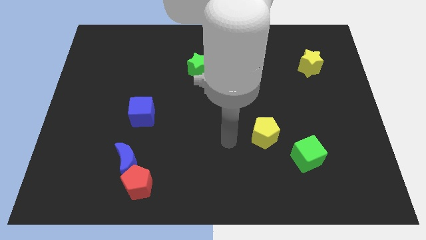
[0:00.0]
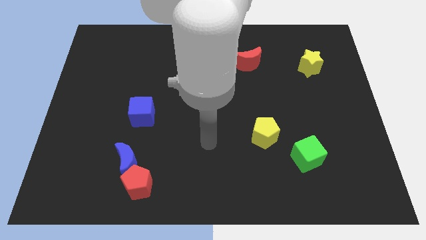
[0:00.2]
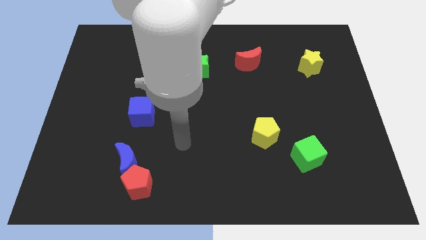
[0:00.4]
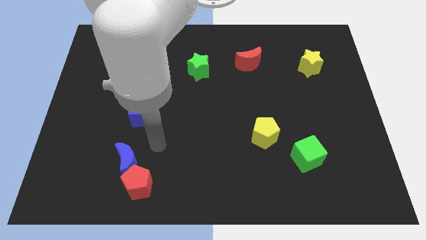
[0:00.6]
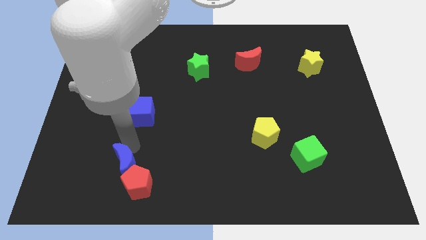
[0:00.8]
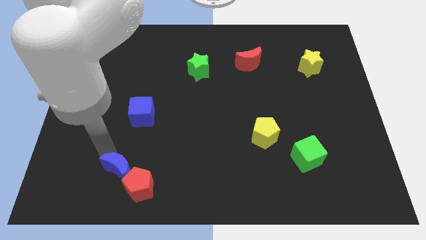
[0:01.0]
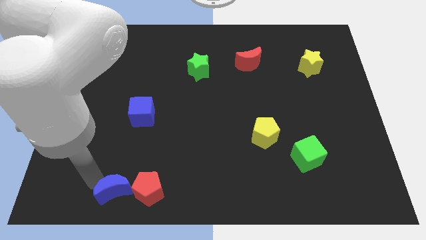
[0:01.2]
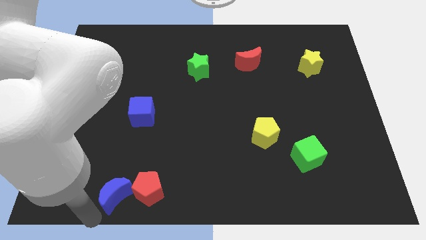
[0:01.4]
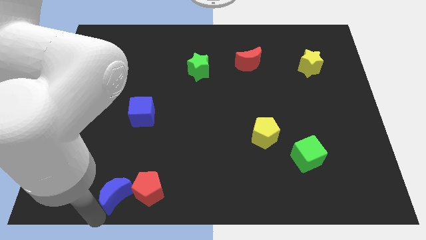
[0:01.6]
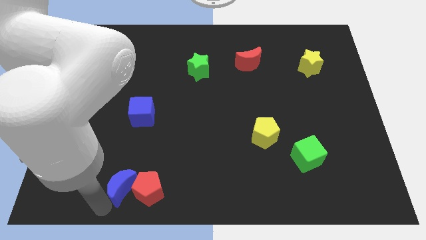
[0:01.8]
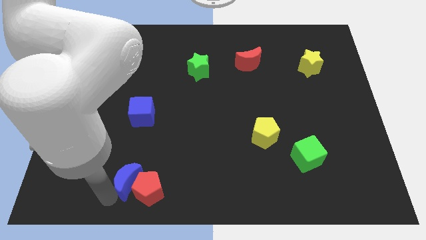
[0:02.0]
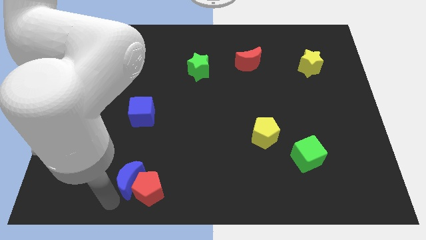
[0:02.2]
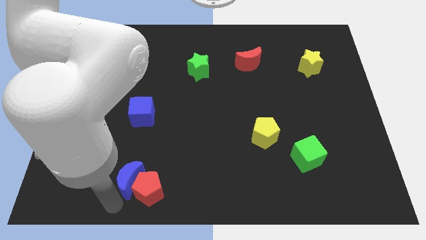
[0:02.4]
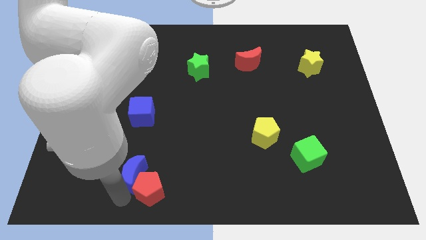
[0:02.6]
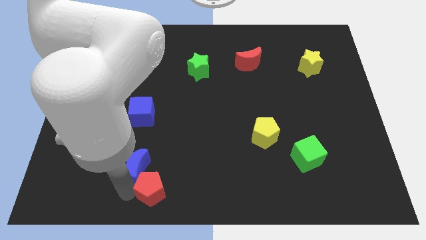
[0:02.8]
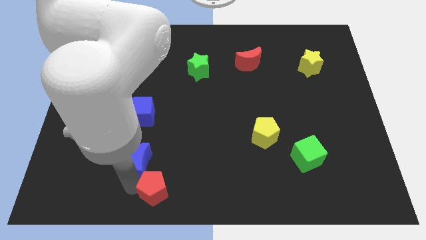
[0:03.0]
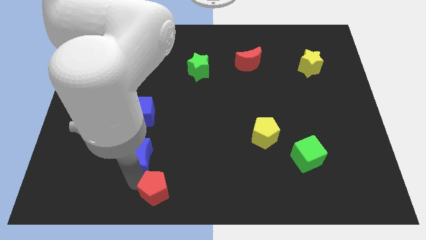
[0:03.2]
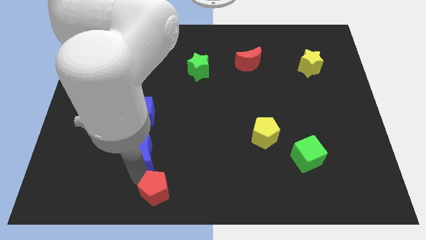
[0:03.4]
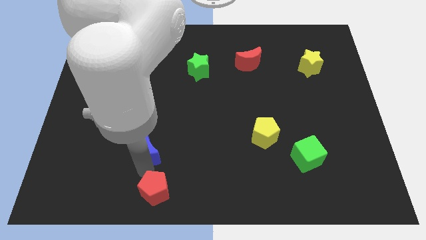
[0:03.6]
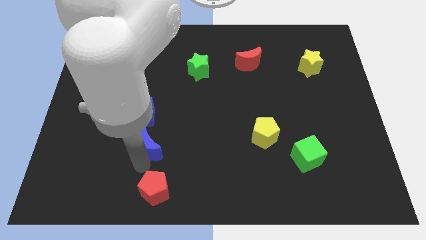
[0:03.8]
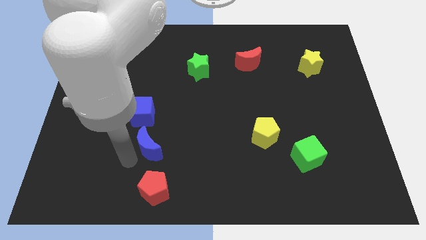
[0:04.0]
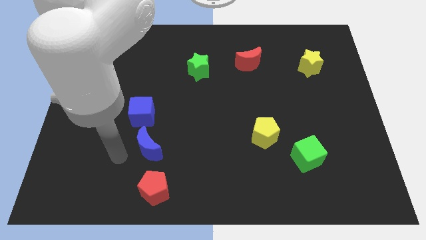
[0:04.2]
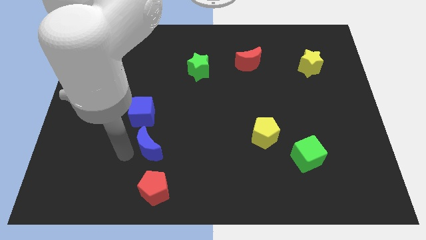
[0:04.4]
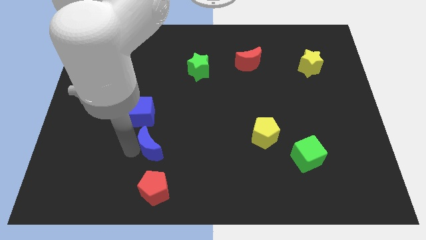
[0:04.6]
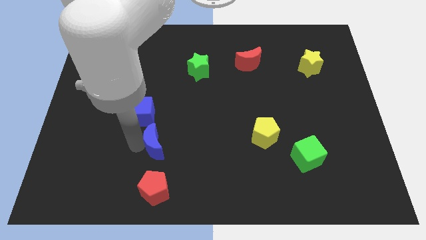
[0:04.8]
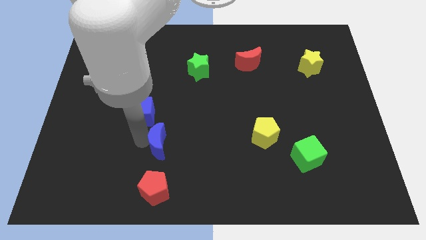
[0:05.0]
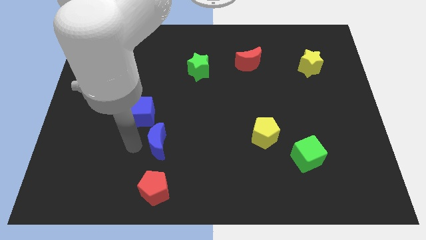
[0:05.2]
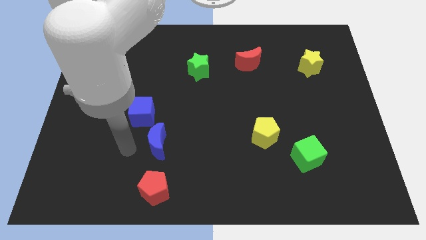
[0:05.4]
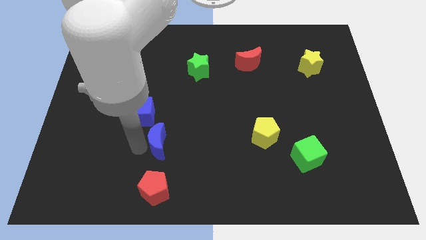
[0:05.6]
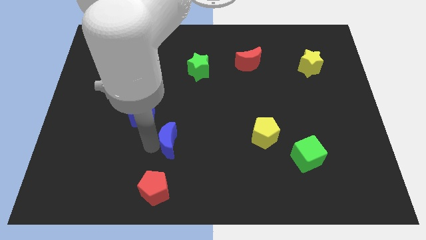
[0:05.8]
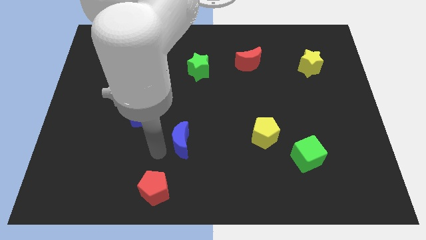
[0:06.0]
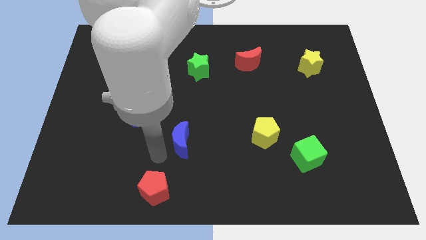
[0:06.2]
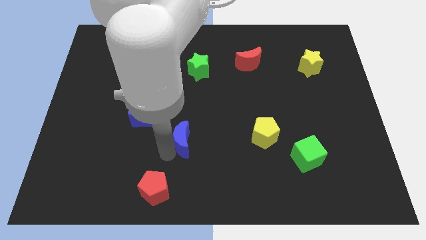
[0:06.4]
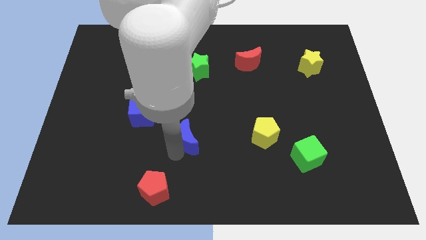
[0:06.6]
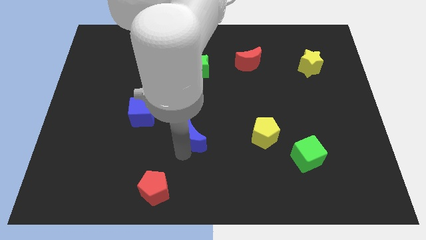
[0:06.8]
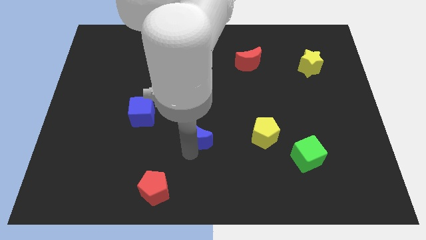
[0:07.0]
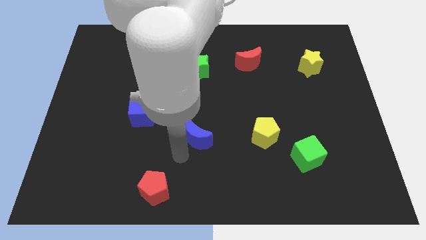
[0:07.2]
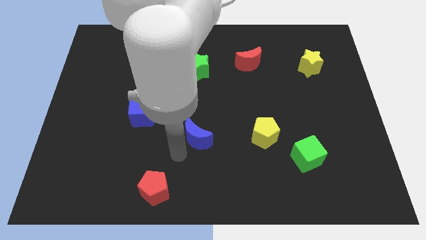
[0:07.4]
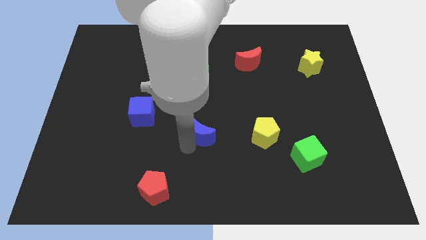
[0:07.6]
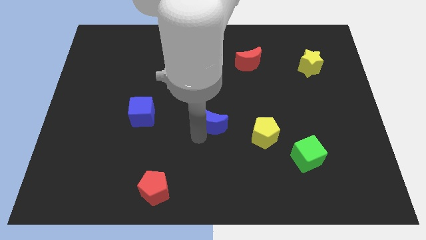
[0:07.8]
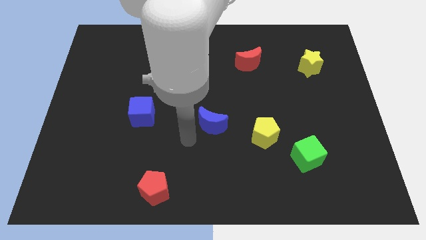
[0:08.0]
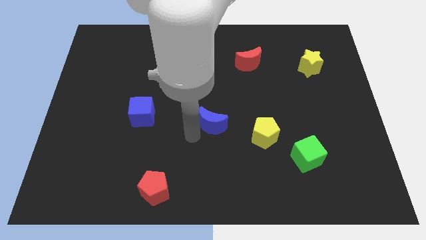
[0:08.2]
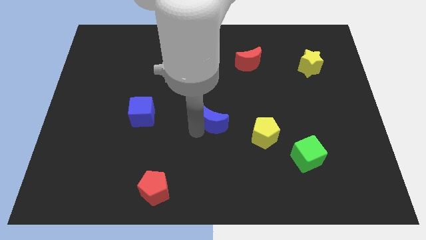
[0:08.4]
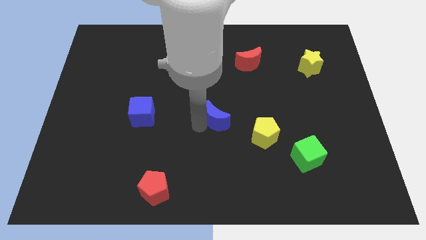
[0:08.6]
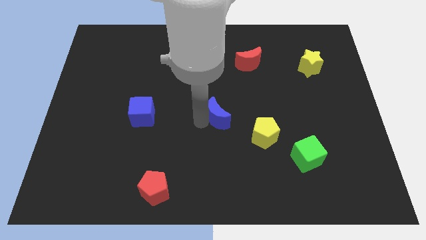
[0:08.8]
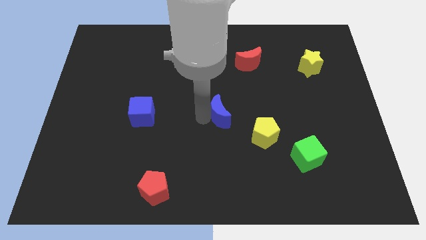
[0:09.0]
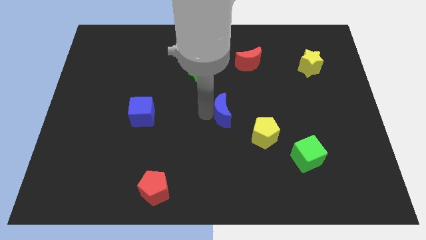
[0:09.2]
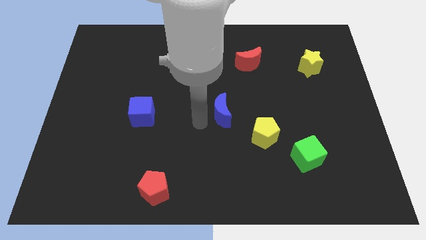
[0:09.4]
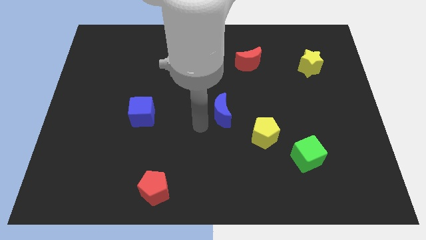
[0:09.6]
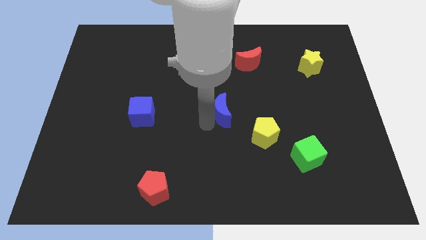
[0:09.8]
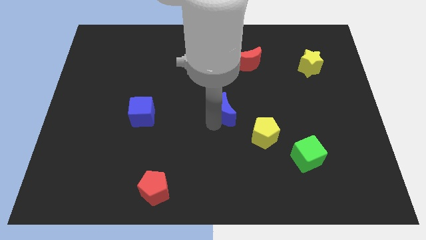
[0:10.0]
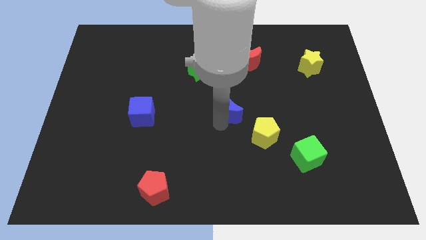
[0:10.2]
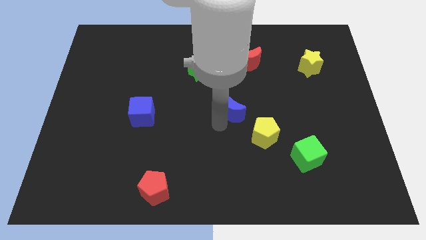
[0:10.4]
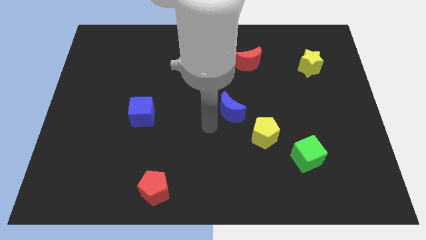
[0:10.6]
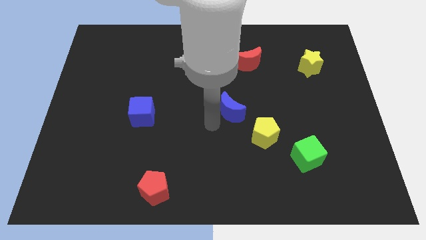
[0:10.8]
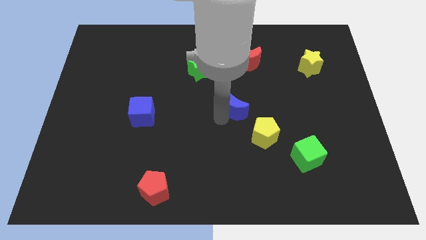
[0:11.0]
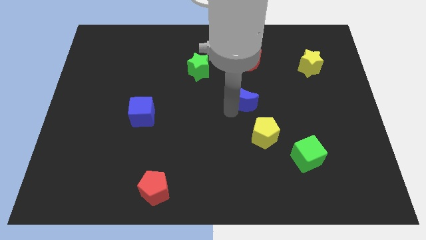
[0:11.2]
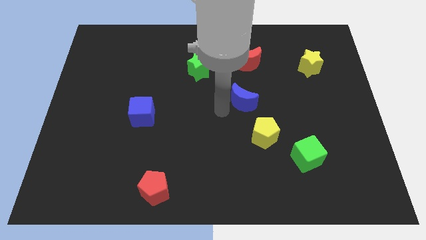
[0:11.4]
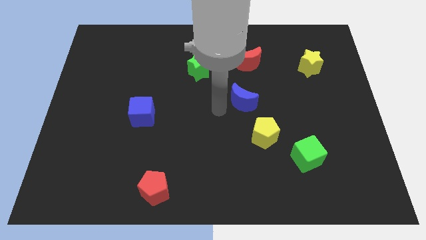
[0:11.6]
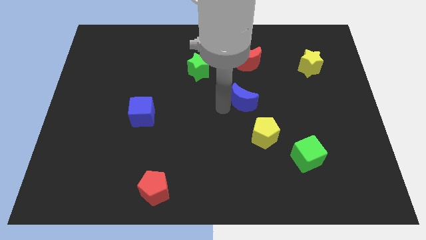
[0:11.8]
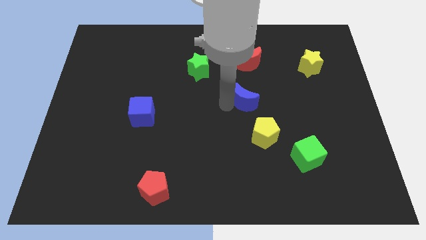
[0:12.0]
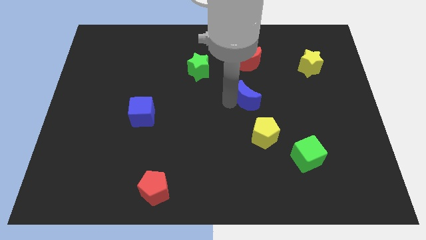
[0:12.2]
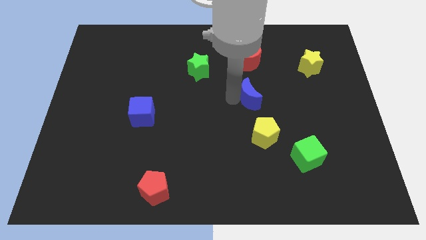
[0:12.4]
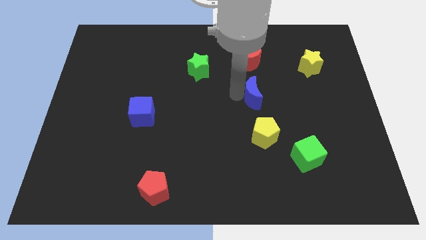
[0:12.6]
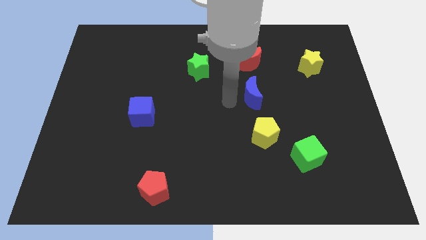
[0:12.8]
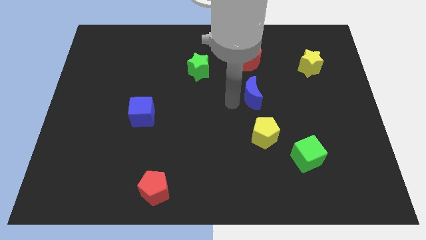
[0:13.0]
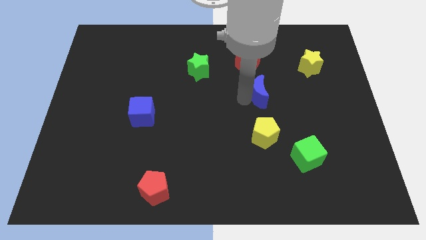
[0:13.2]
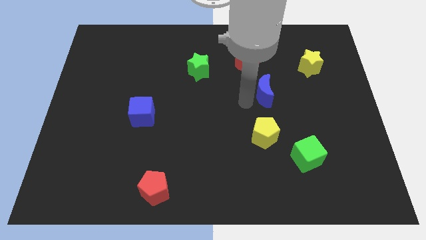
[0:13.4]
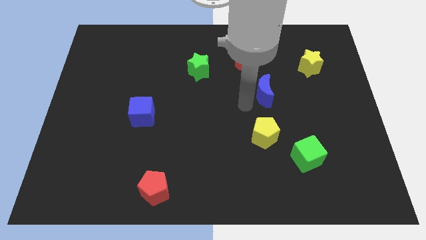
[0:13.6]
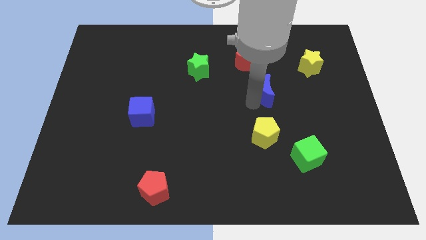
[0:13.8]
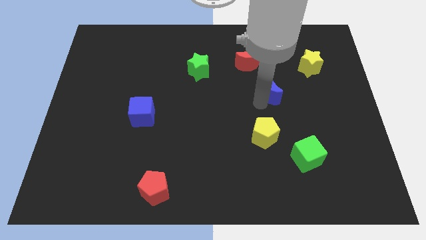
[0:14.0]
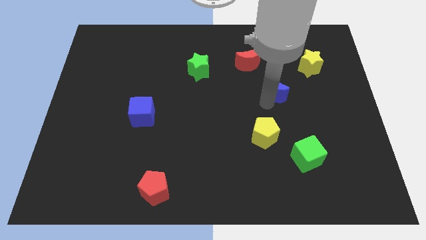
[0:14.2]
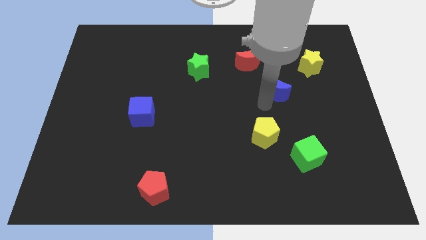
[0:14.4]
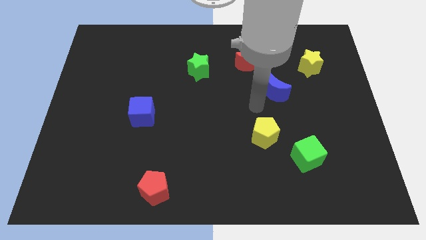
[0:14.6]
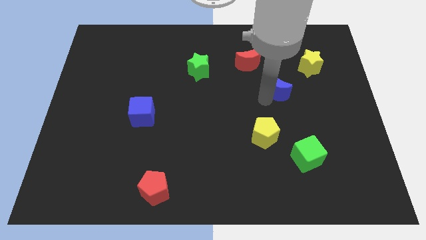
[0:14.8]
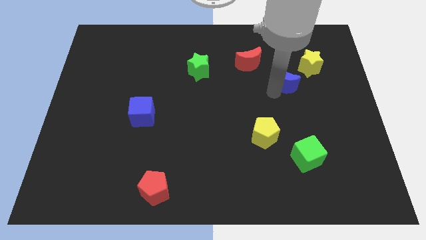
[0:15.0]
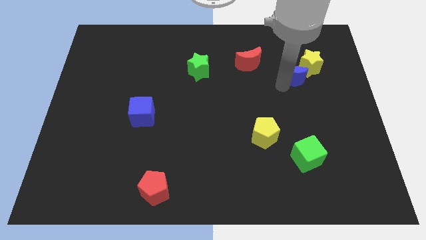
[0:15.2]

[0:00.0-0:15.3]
move the blue moon to the yellow star
